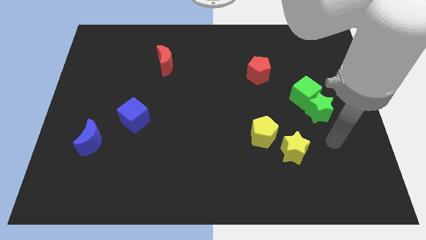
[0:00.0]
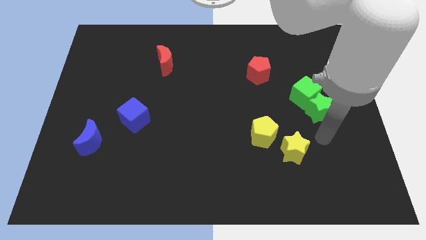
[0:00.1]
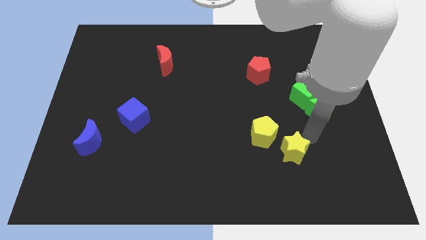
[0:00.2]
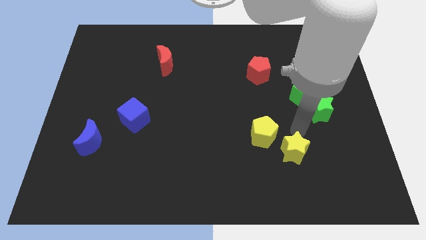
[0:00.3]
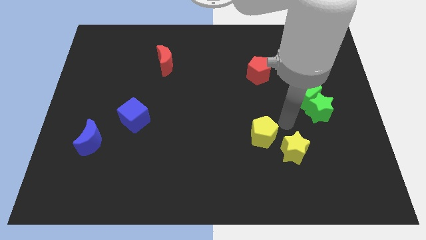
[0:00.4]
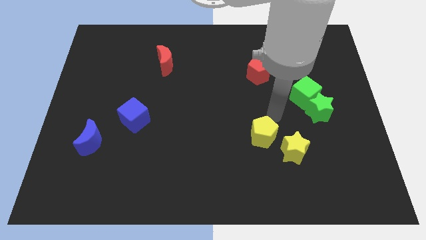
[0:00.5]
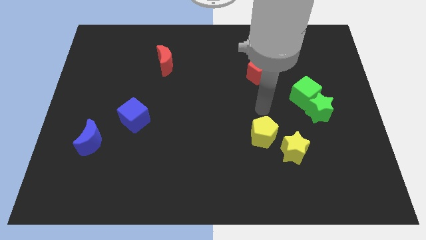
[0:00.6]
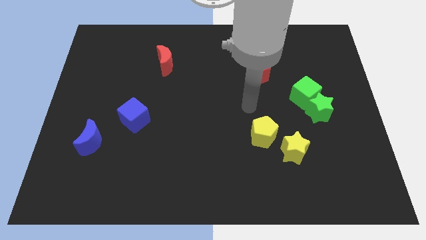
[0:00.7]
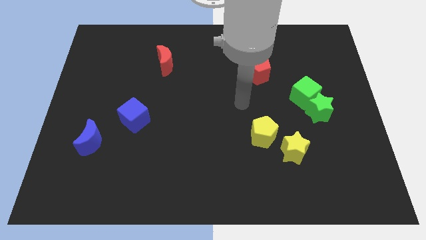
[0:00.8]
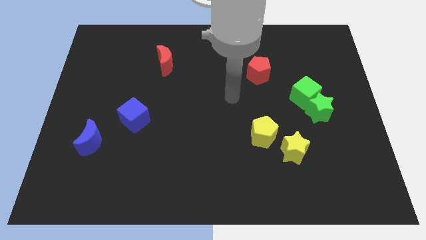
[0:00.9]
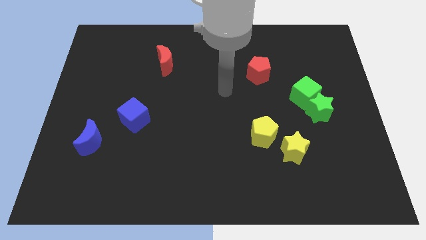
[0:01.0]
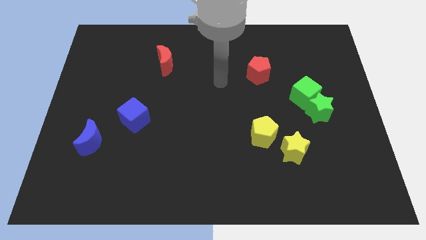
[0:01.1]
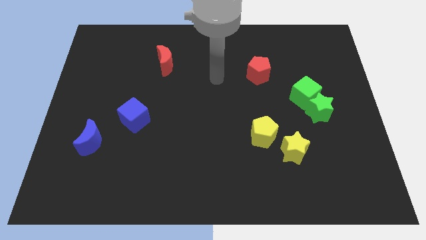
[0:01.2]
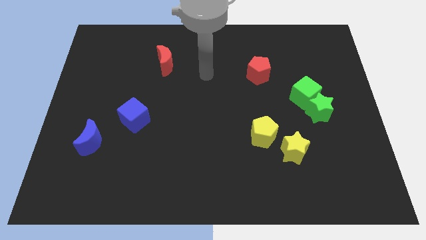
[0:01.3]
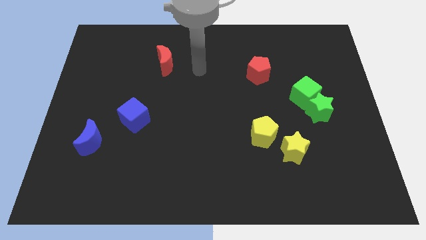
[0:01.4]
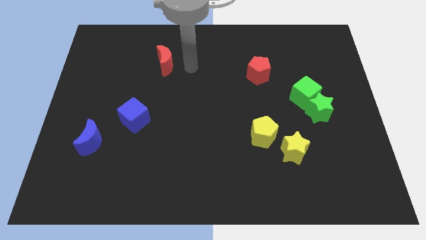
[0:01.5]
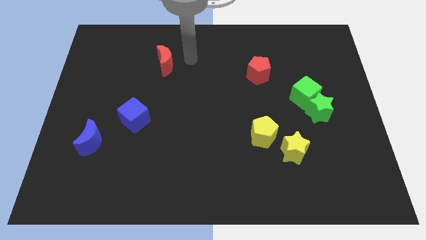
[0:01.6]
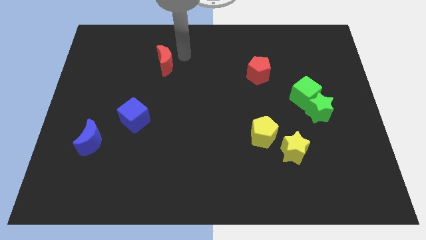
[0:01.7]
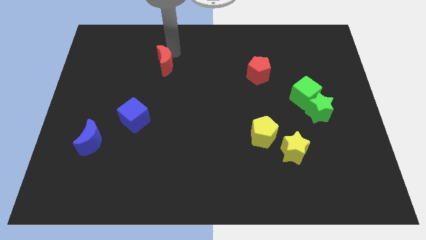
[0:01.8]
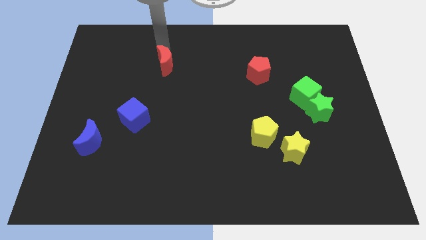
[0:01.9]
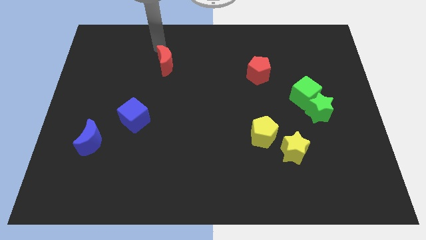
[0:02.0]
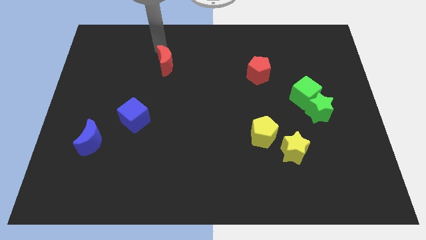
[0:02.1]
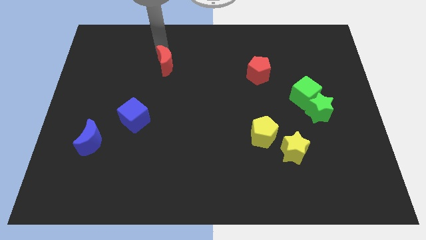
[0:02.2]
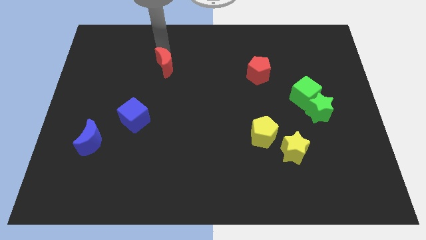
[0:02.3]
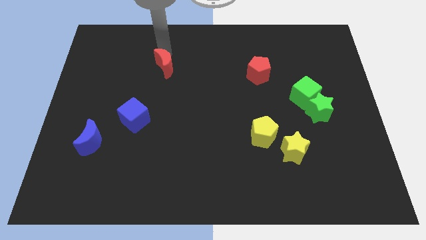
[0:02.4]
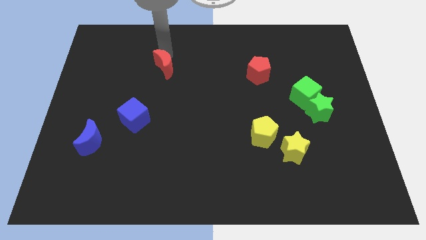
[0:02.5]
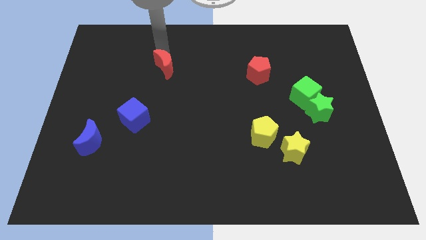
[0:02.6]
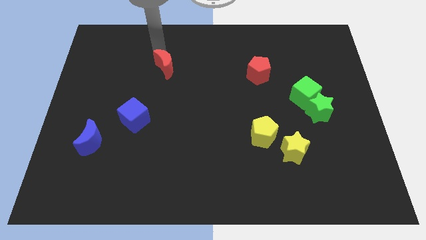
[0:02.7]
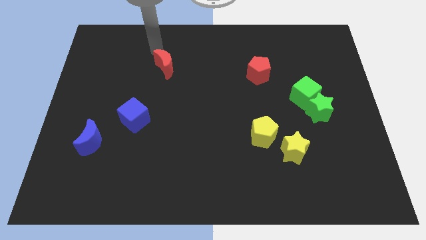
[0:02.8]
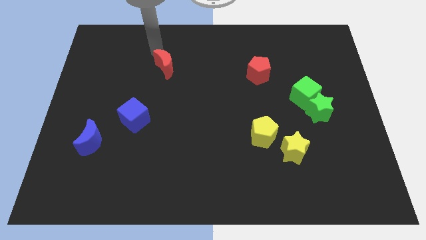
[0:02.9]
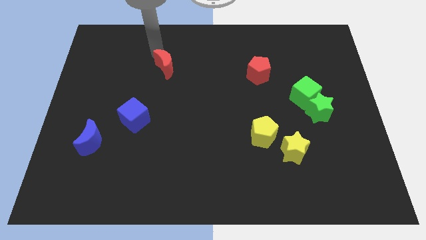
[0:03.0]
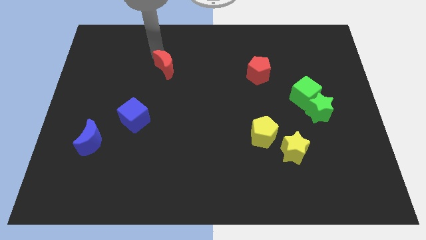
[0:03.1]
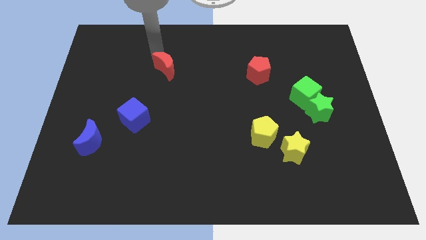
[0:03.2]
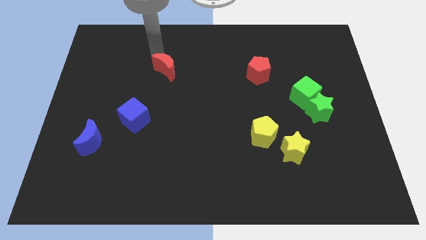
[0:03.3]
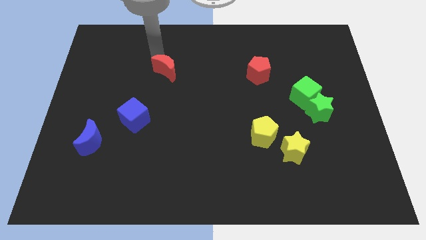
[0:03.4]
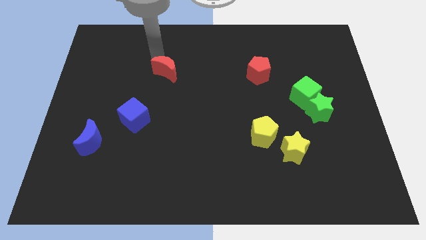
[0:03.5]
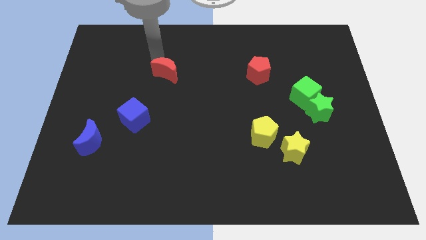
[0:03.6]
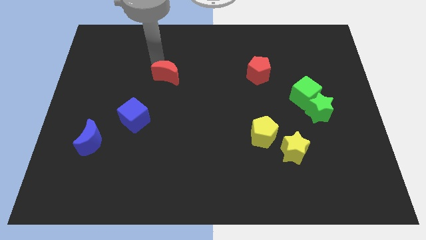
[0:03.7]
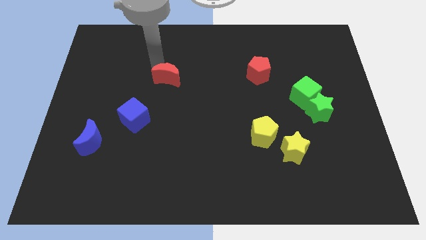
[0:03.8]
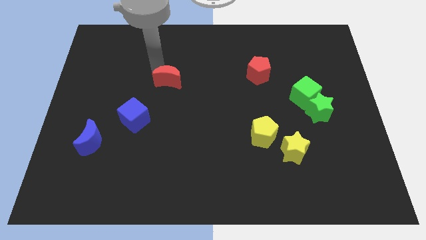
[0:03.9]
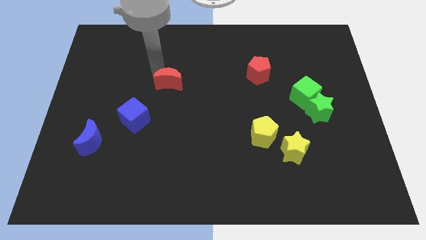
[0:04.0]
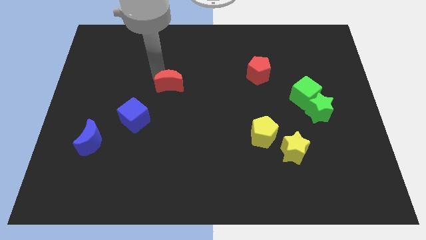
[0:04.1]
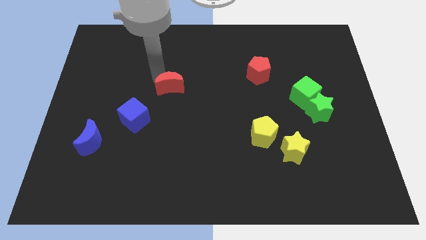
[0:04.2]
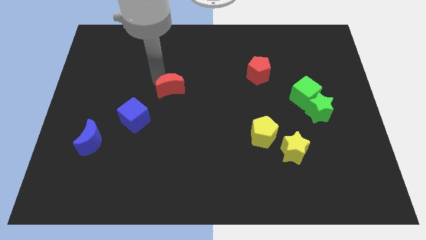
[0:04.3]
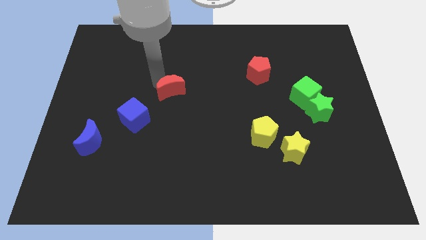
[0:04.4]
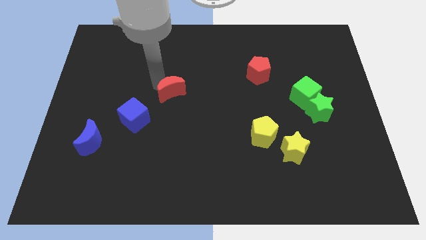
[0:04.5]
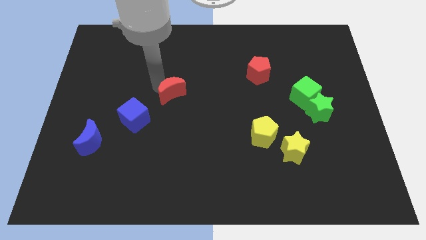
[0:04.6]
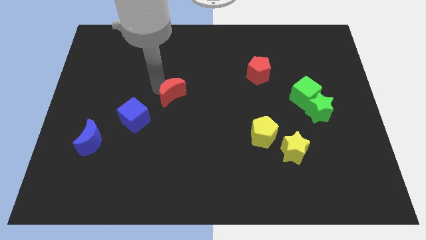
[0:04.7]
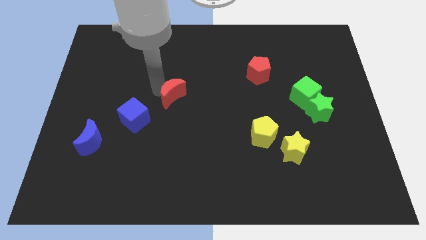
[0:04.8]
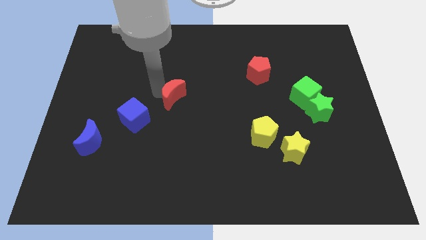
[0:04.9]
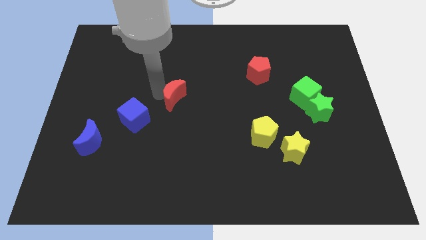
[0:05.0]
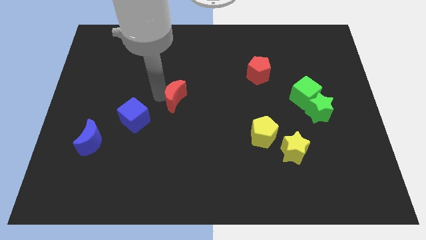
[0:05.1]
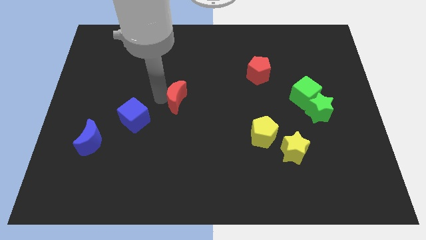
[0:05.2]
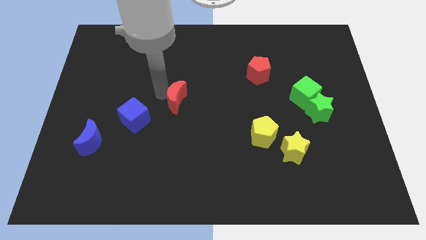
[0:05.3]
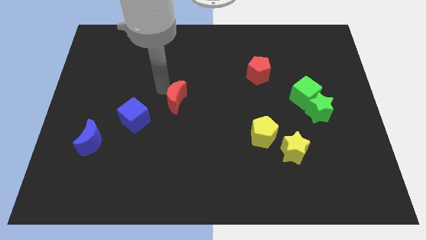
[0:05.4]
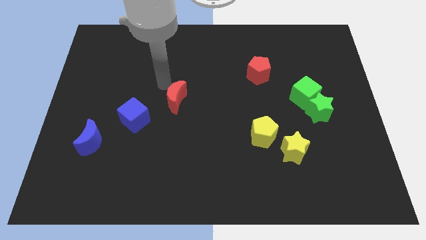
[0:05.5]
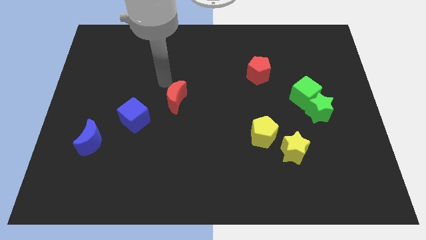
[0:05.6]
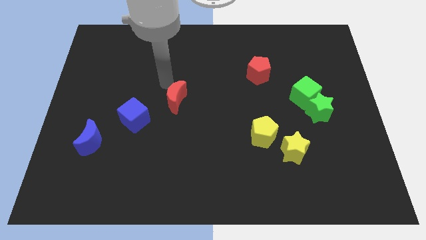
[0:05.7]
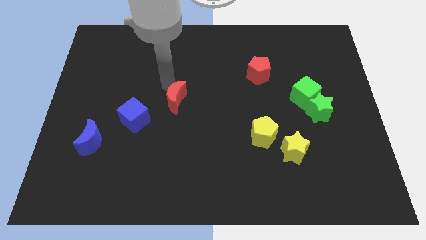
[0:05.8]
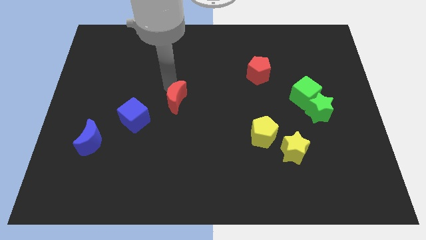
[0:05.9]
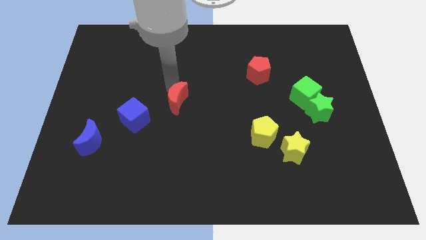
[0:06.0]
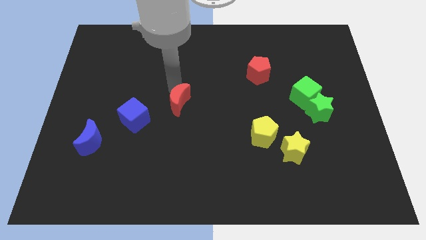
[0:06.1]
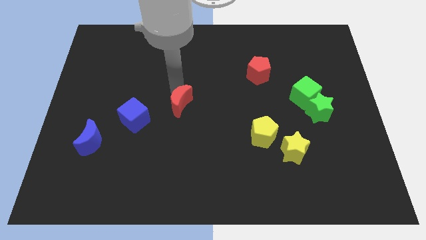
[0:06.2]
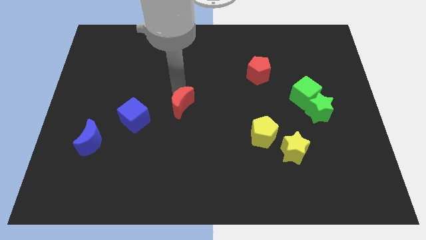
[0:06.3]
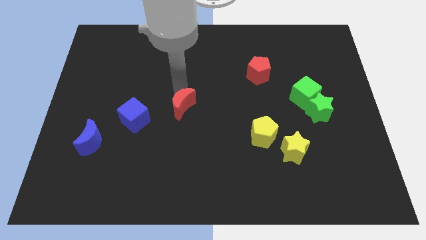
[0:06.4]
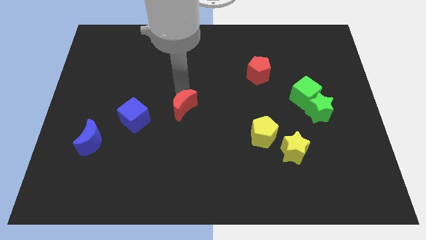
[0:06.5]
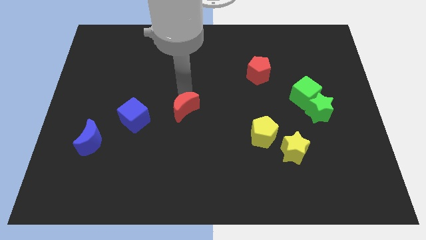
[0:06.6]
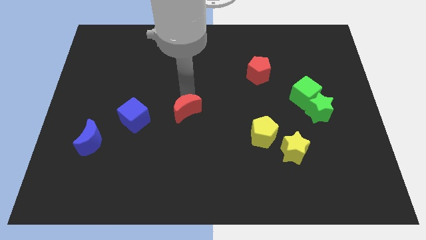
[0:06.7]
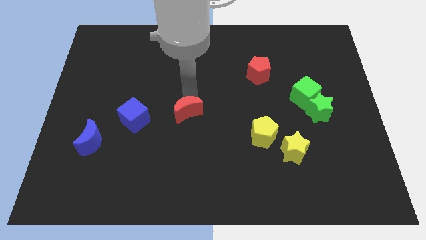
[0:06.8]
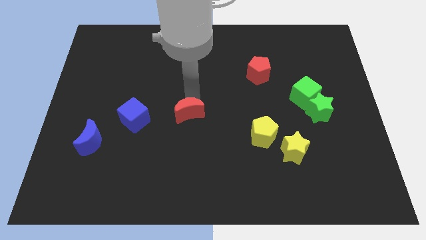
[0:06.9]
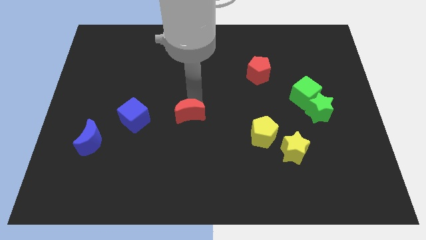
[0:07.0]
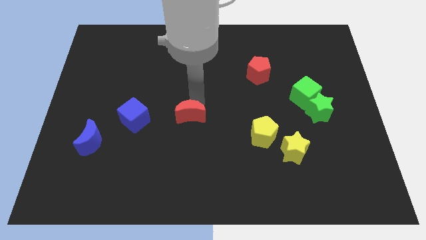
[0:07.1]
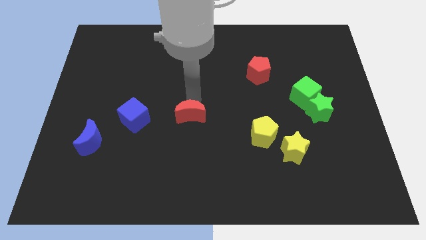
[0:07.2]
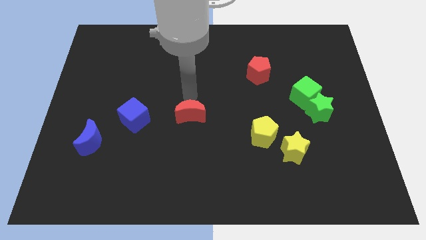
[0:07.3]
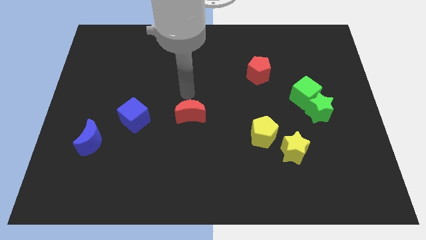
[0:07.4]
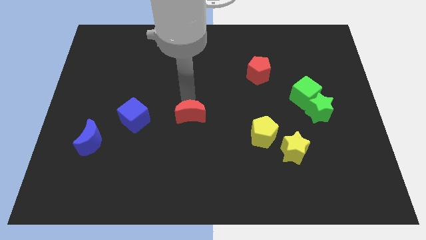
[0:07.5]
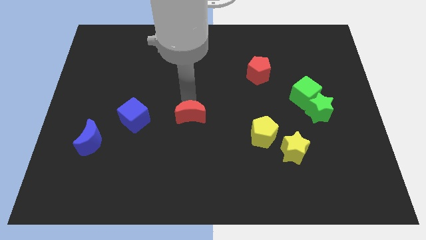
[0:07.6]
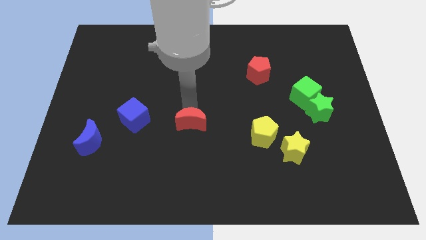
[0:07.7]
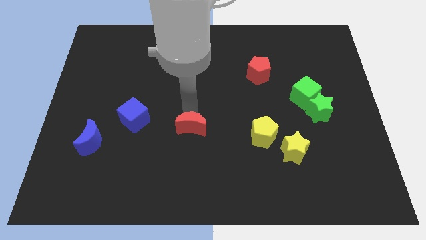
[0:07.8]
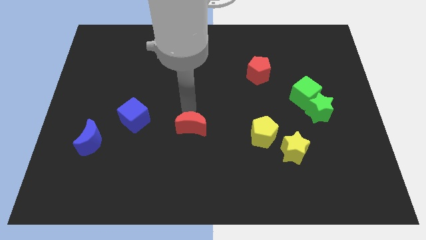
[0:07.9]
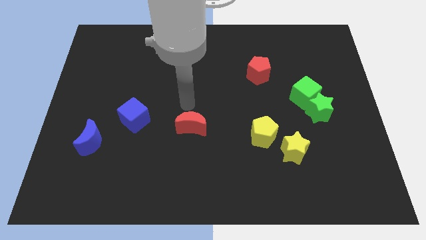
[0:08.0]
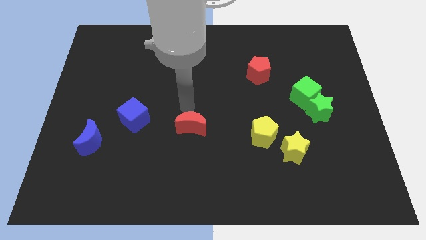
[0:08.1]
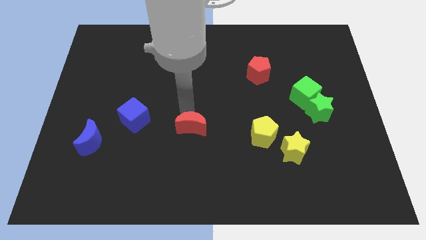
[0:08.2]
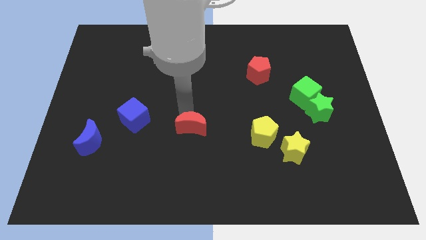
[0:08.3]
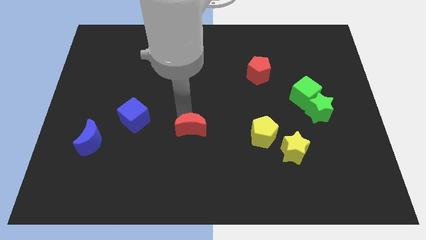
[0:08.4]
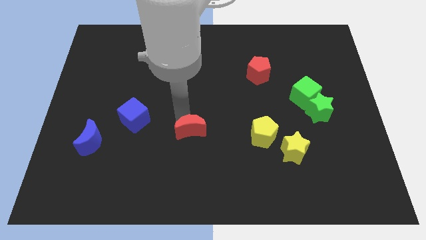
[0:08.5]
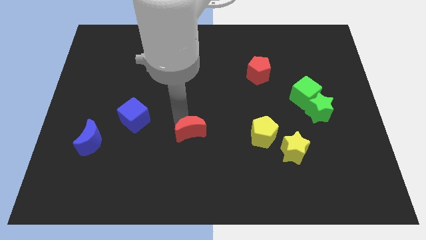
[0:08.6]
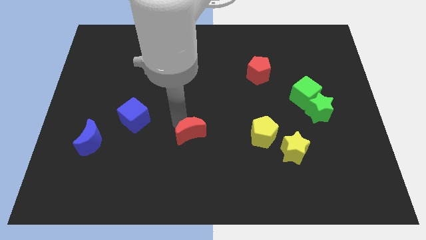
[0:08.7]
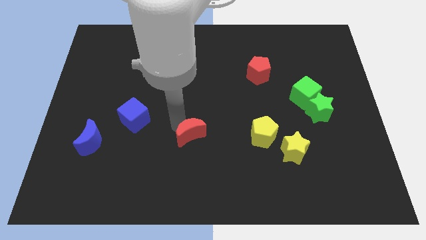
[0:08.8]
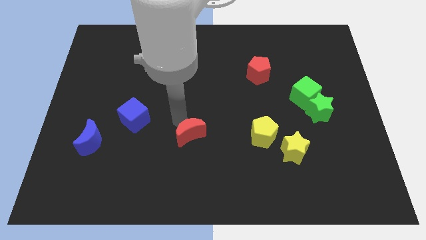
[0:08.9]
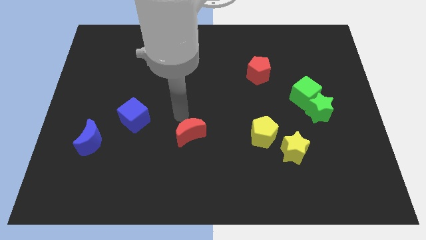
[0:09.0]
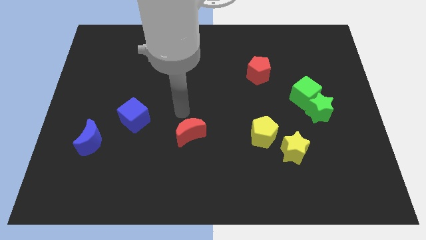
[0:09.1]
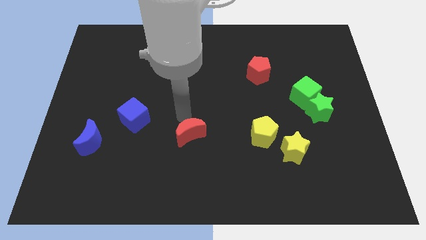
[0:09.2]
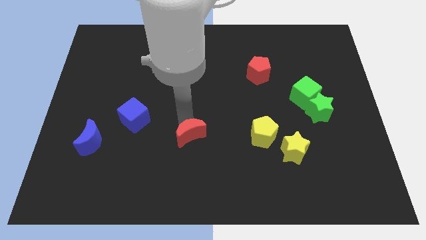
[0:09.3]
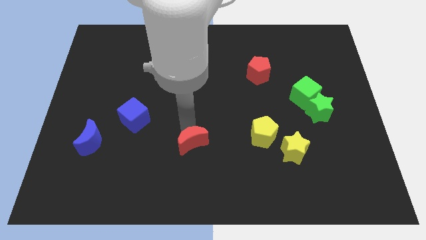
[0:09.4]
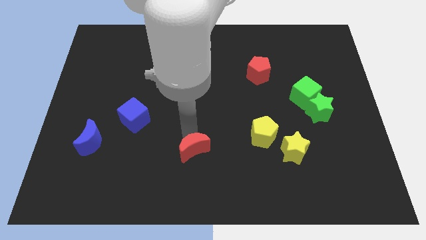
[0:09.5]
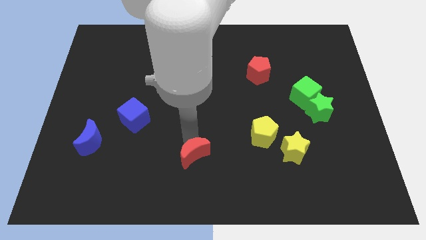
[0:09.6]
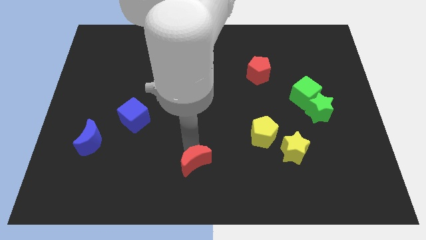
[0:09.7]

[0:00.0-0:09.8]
put the red moon to the bottom
